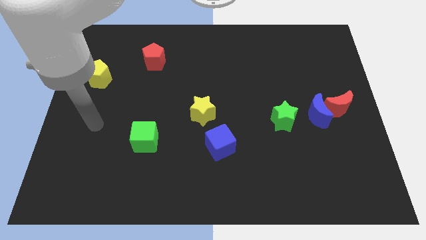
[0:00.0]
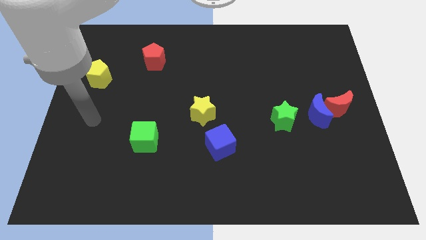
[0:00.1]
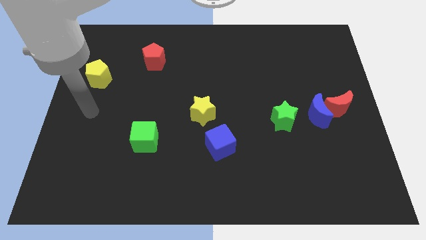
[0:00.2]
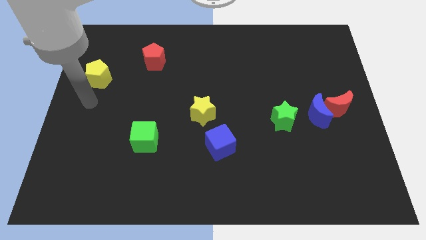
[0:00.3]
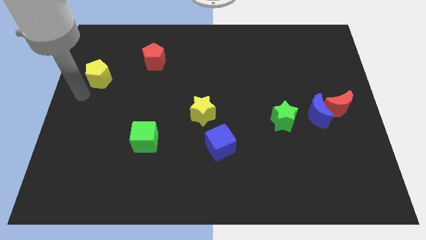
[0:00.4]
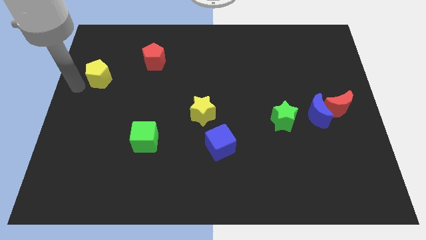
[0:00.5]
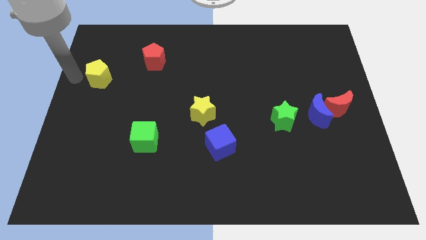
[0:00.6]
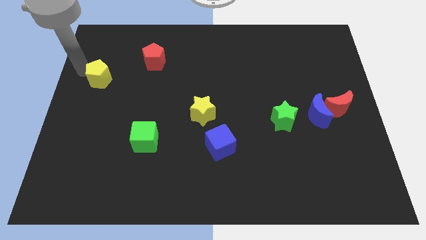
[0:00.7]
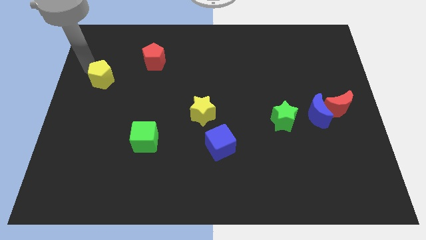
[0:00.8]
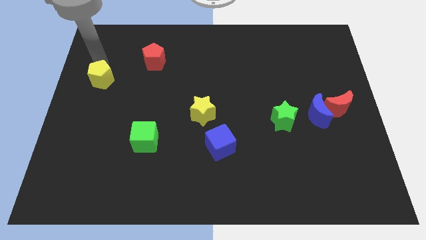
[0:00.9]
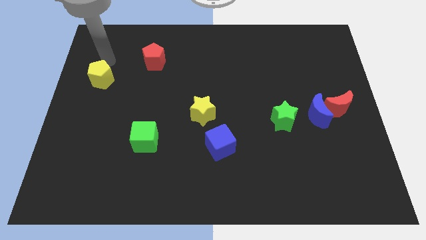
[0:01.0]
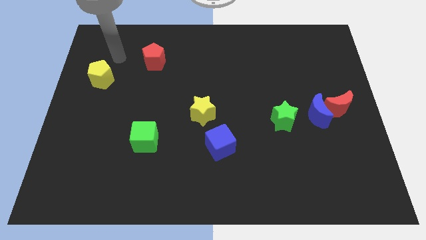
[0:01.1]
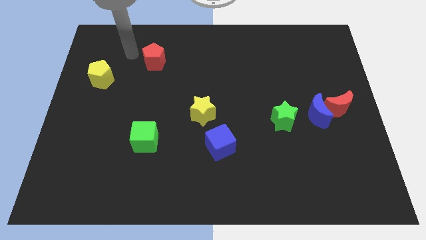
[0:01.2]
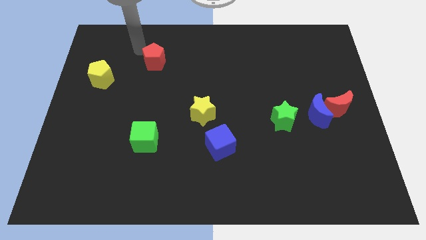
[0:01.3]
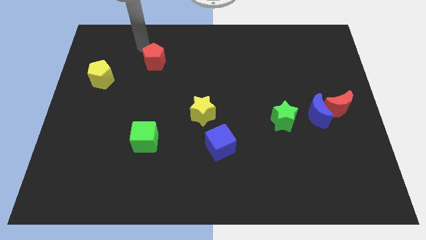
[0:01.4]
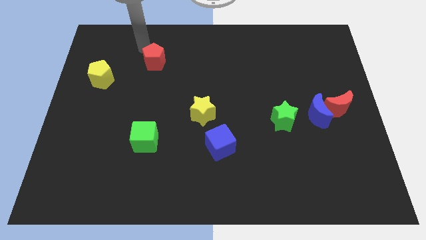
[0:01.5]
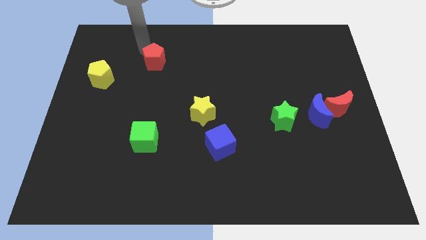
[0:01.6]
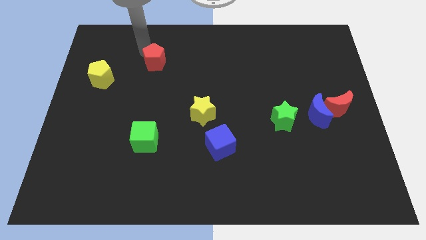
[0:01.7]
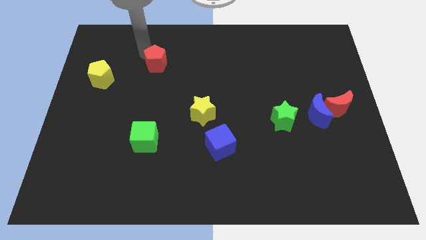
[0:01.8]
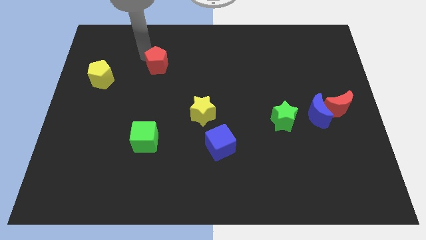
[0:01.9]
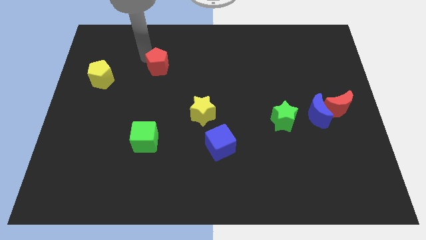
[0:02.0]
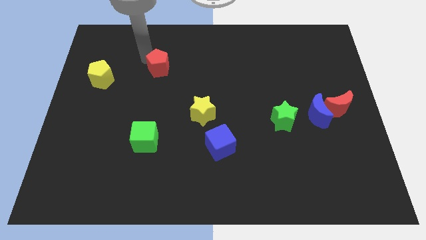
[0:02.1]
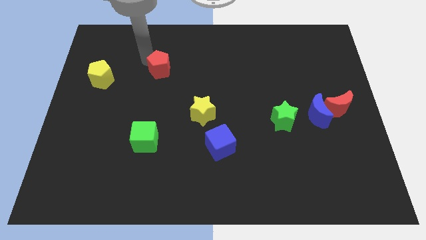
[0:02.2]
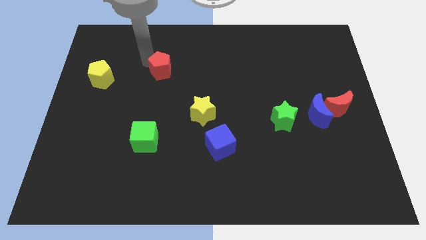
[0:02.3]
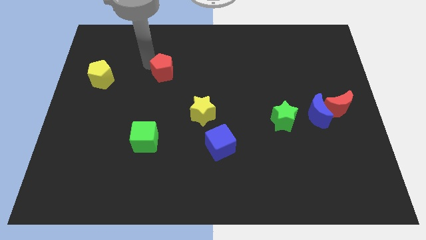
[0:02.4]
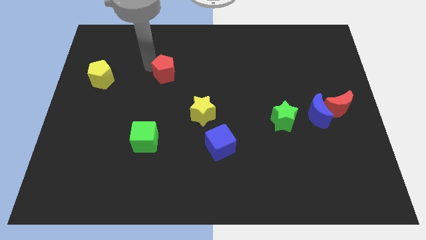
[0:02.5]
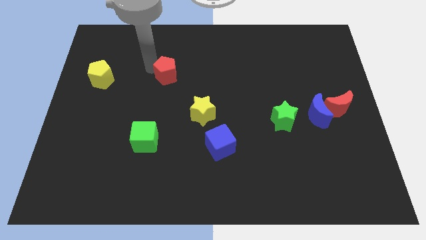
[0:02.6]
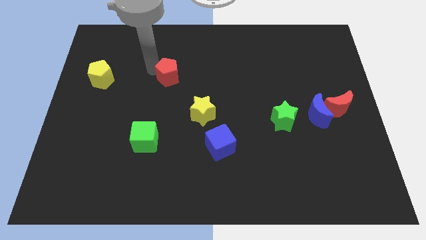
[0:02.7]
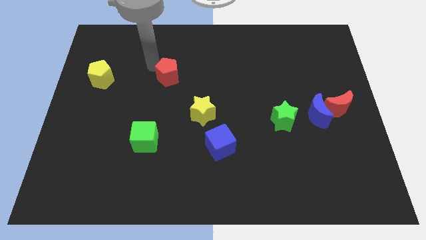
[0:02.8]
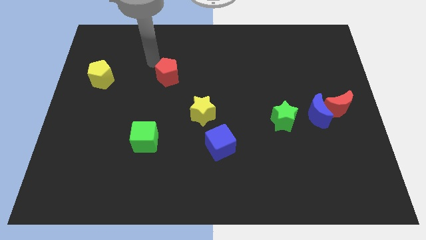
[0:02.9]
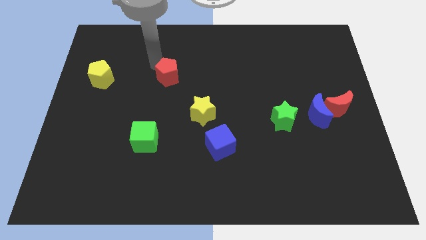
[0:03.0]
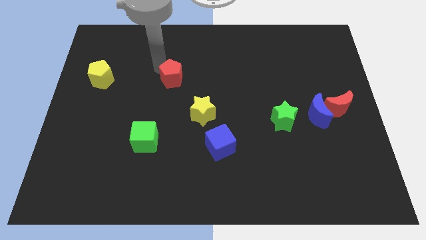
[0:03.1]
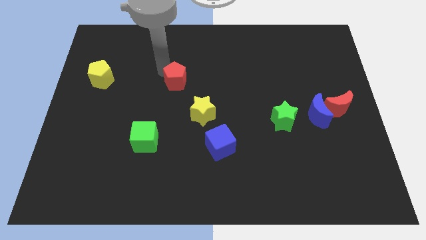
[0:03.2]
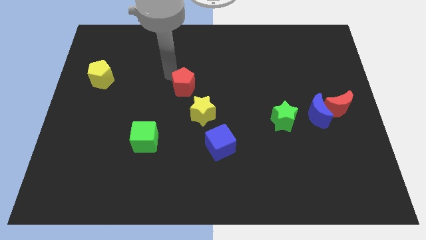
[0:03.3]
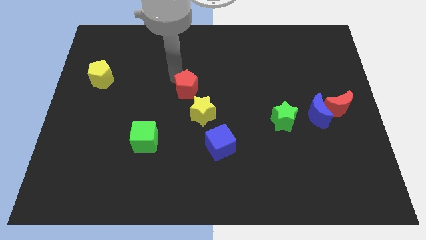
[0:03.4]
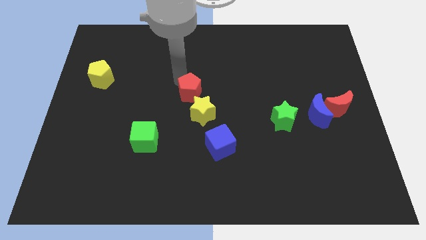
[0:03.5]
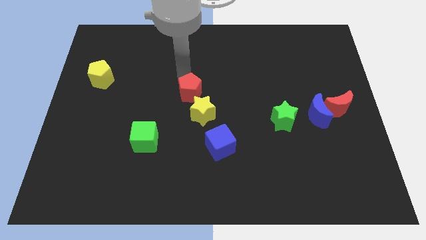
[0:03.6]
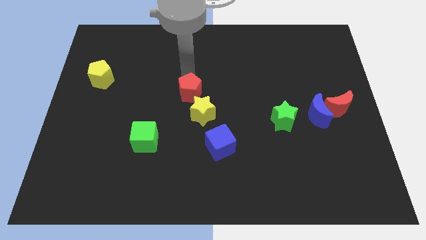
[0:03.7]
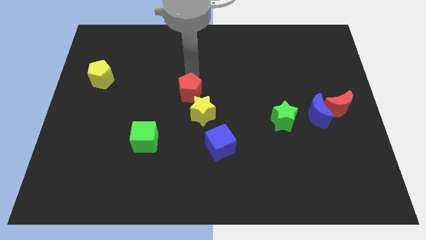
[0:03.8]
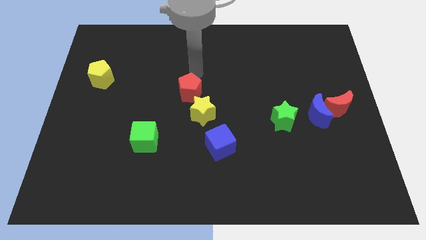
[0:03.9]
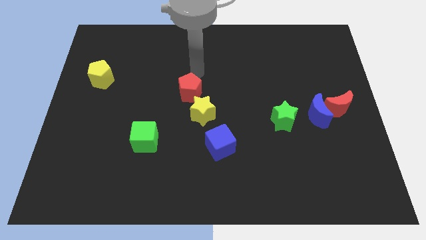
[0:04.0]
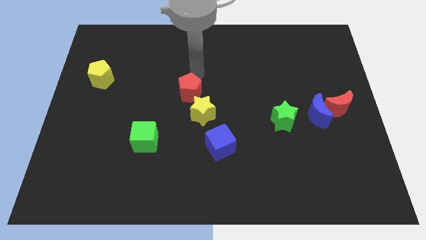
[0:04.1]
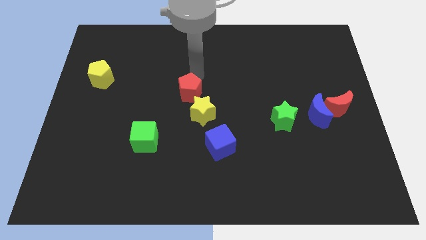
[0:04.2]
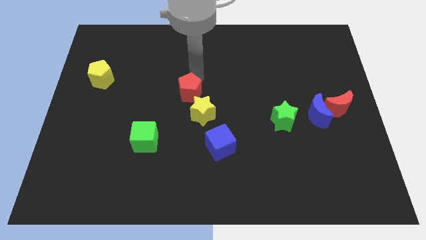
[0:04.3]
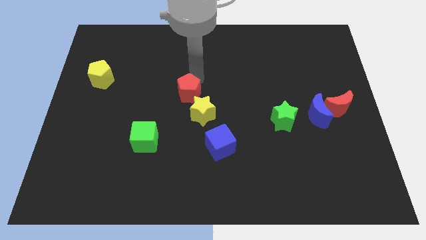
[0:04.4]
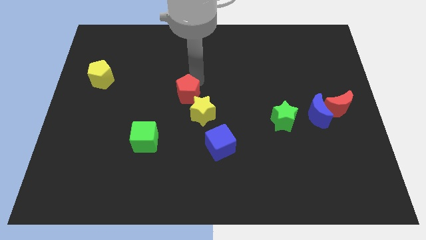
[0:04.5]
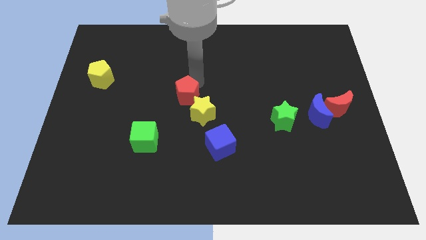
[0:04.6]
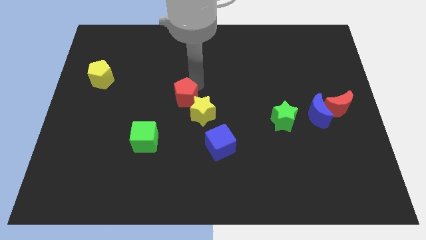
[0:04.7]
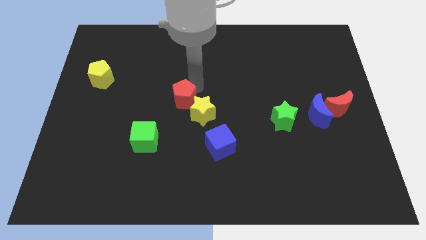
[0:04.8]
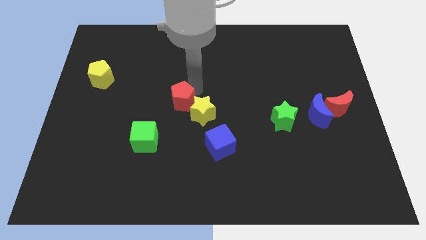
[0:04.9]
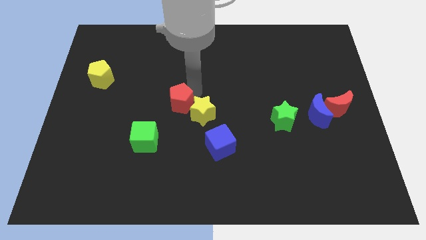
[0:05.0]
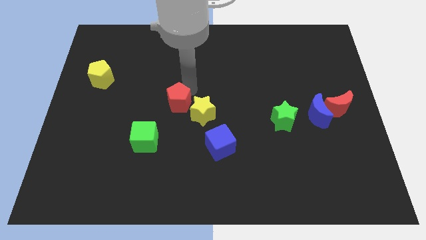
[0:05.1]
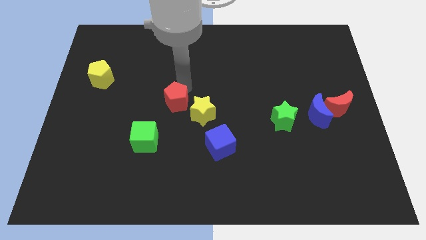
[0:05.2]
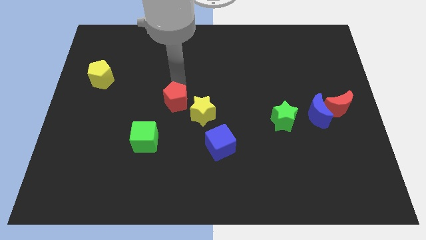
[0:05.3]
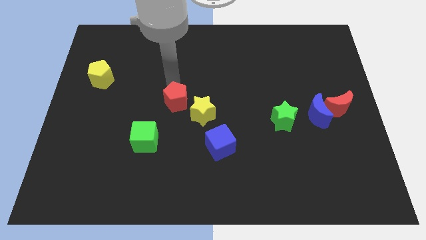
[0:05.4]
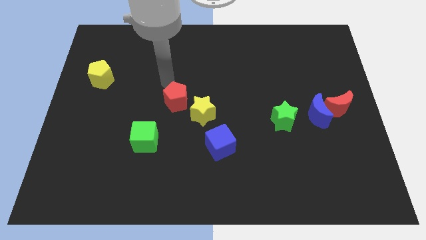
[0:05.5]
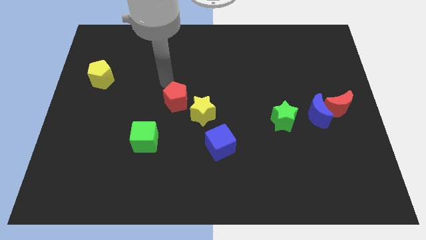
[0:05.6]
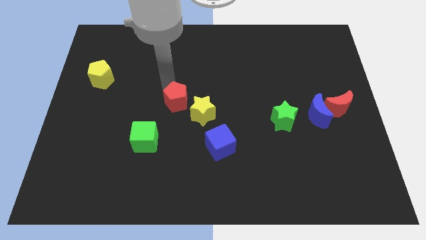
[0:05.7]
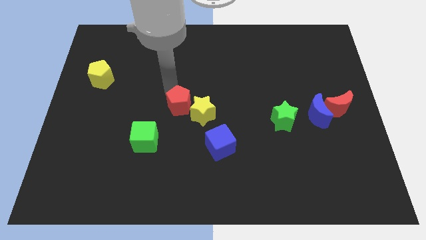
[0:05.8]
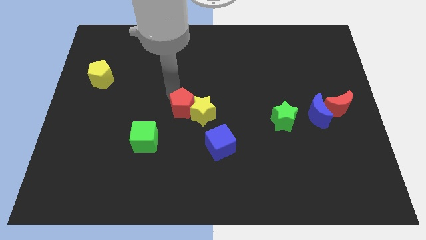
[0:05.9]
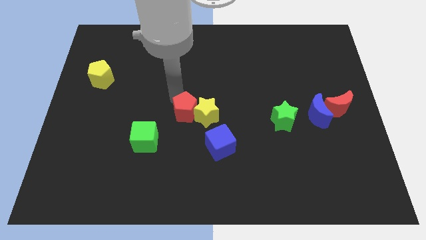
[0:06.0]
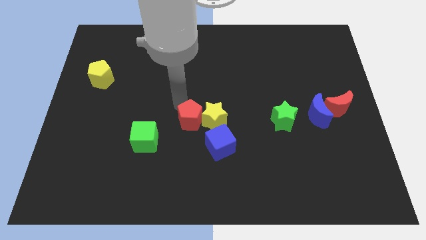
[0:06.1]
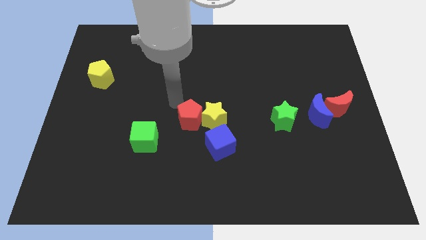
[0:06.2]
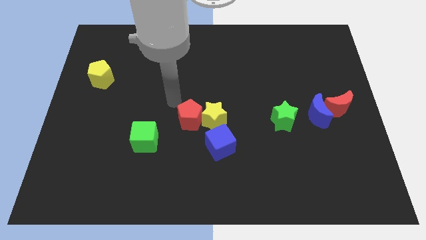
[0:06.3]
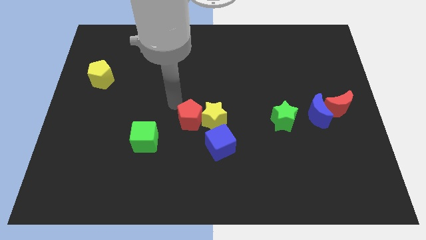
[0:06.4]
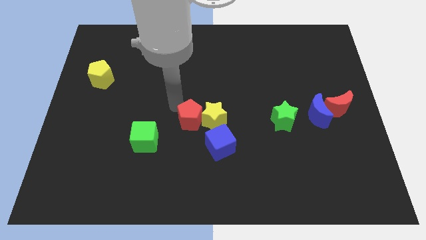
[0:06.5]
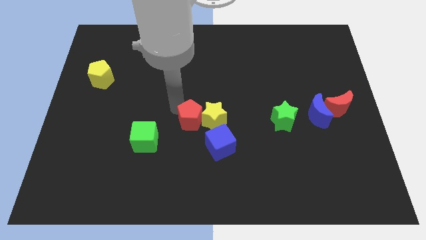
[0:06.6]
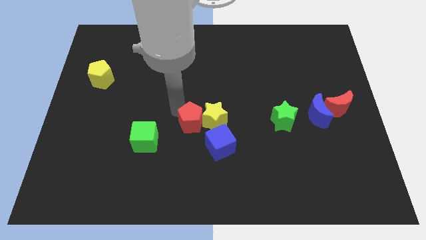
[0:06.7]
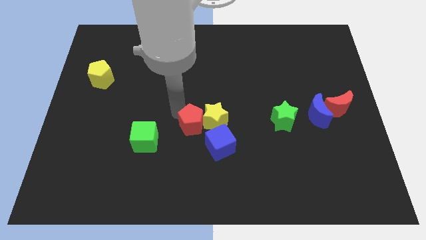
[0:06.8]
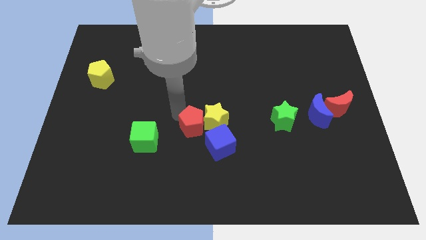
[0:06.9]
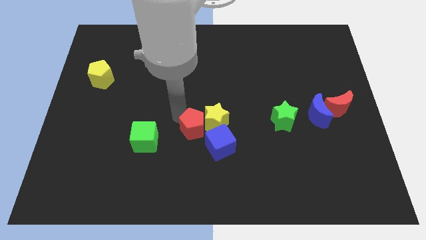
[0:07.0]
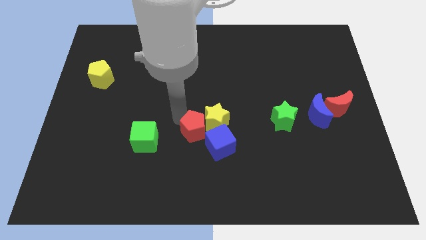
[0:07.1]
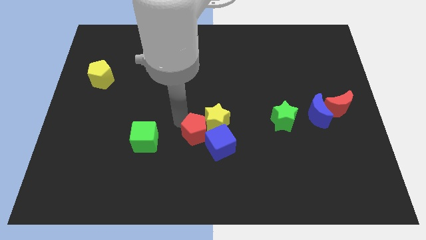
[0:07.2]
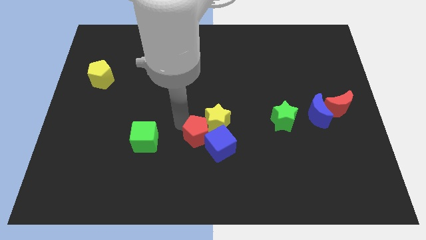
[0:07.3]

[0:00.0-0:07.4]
put the red pentagon to the blue cube
